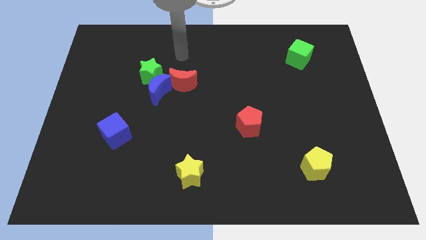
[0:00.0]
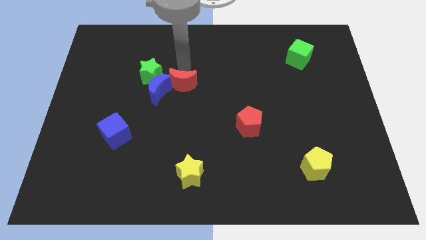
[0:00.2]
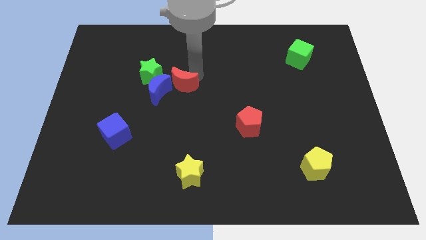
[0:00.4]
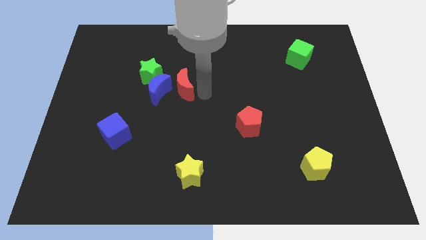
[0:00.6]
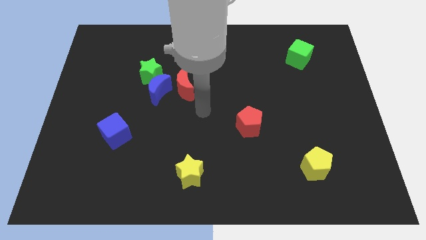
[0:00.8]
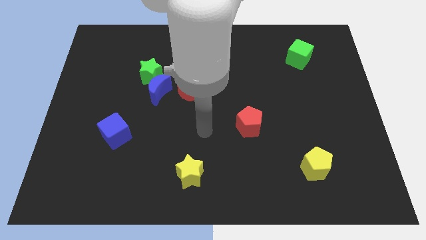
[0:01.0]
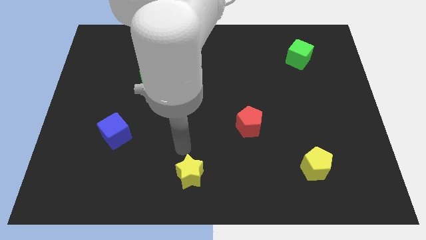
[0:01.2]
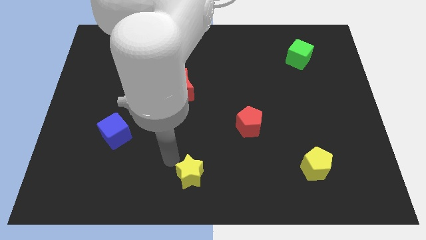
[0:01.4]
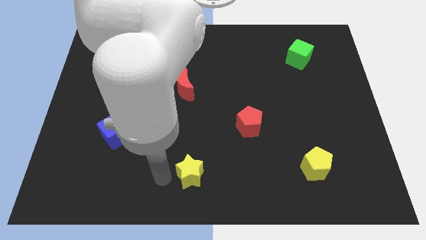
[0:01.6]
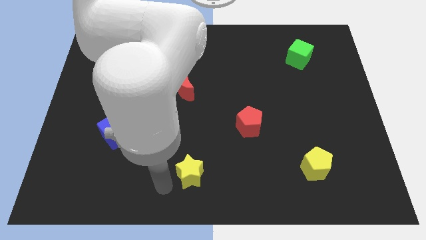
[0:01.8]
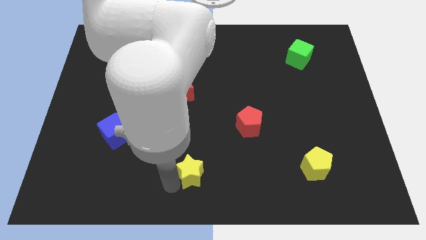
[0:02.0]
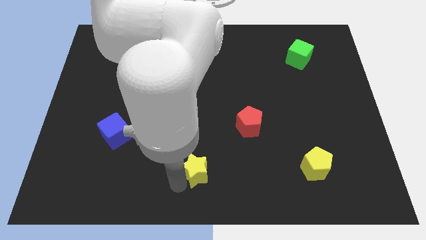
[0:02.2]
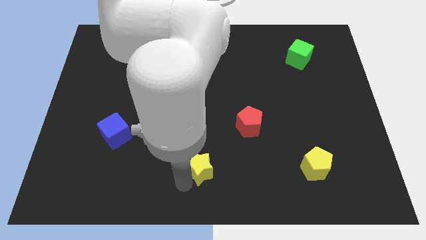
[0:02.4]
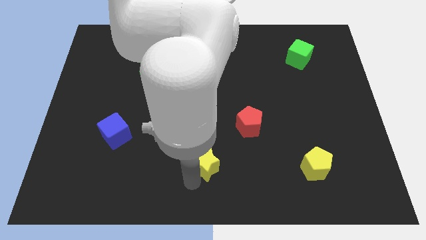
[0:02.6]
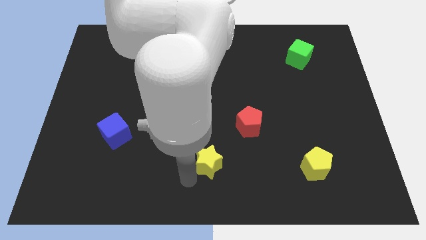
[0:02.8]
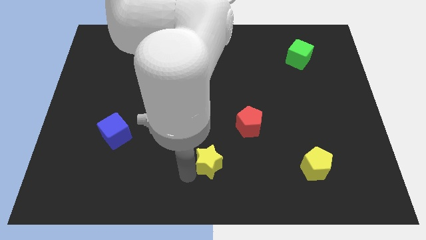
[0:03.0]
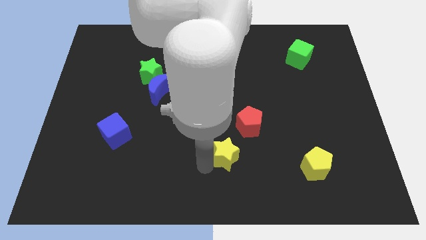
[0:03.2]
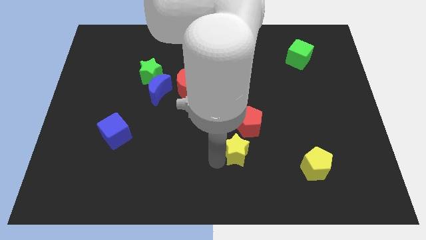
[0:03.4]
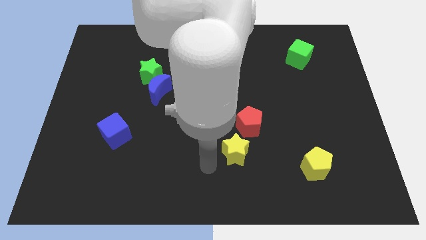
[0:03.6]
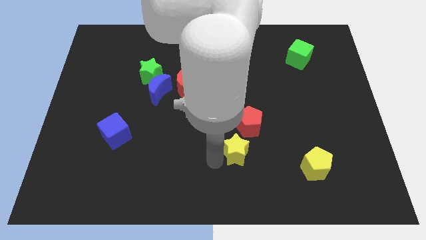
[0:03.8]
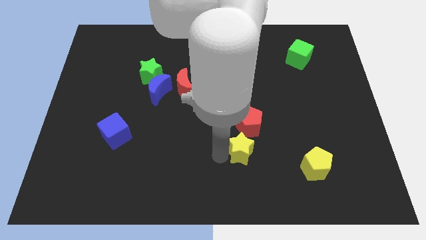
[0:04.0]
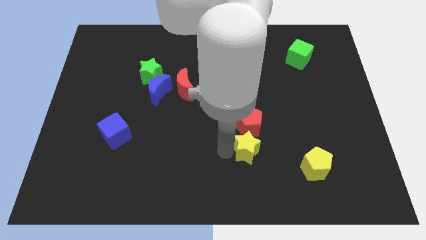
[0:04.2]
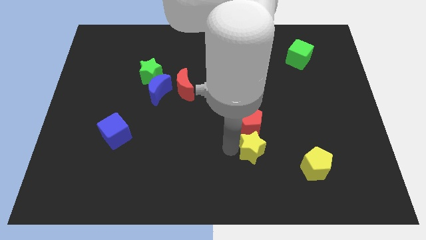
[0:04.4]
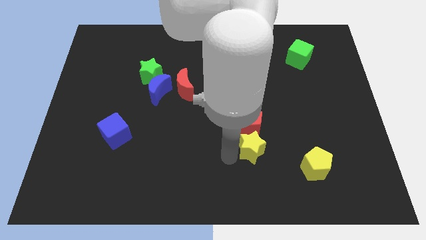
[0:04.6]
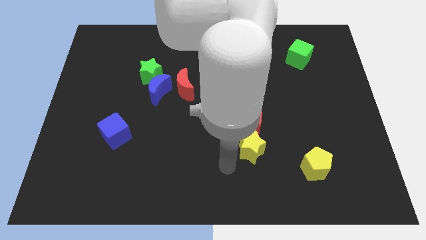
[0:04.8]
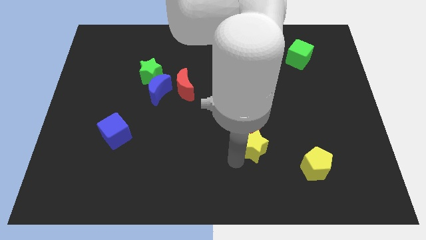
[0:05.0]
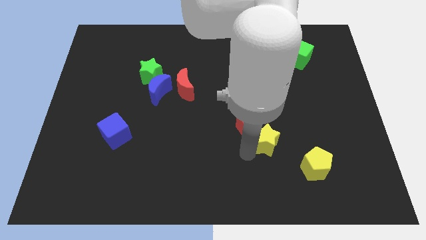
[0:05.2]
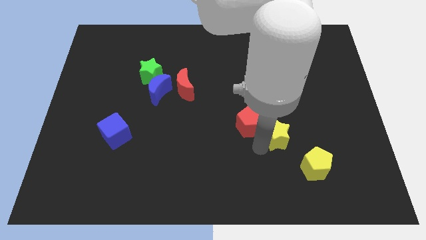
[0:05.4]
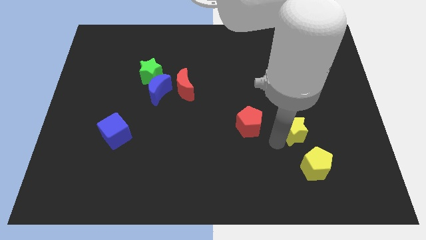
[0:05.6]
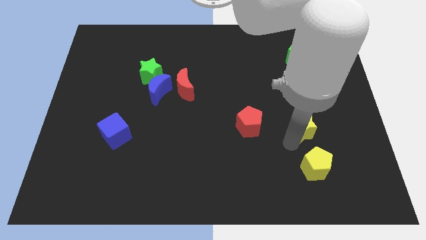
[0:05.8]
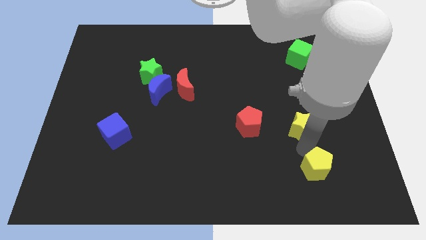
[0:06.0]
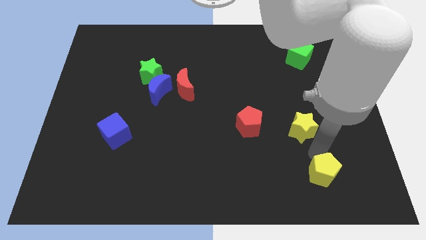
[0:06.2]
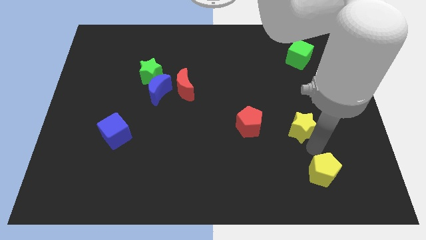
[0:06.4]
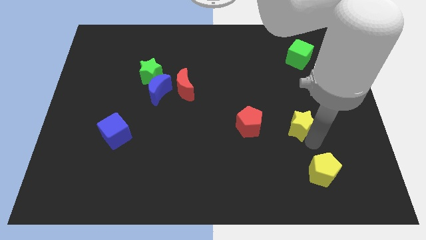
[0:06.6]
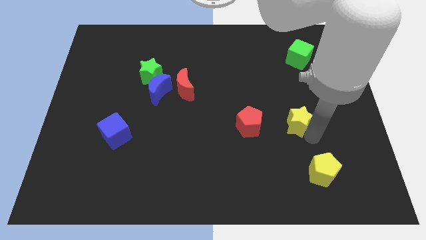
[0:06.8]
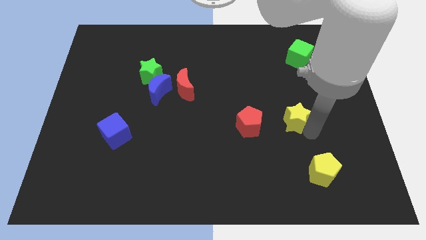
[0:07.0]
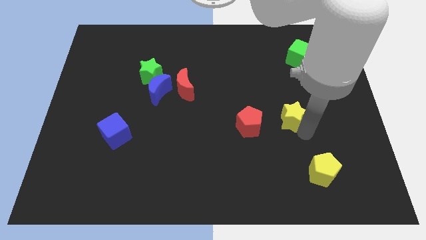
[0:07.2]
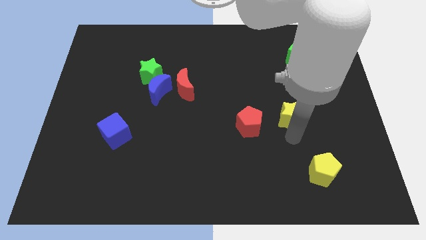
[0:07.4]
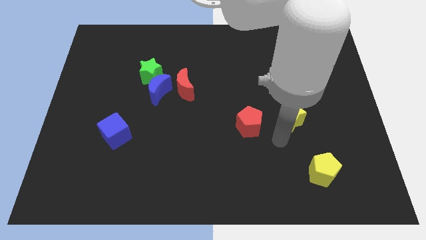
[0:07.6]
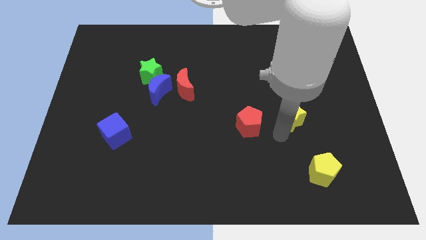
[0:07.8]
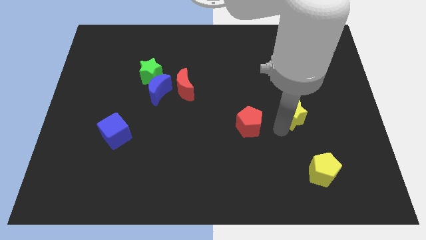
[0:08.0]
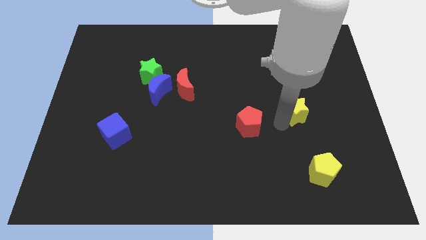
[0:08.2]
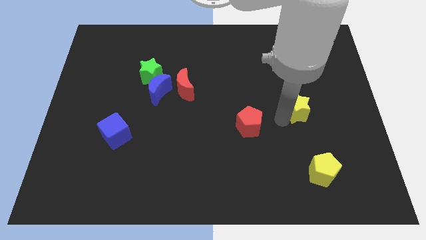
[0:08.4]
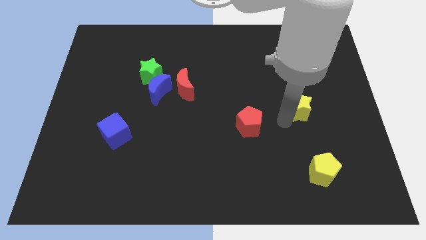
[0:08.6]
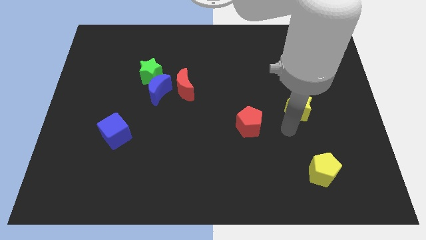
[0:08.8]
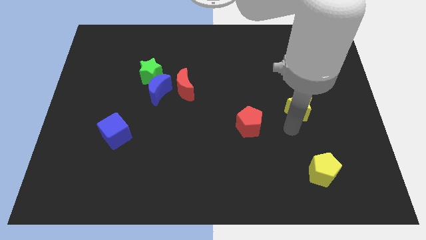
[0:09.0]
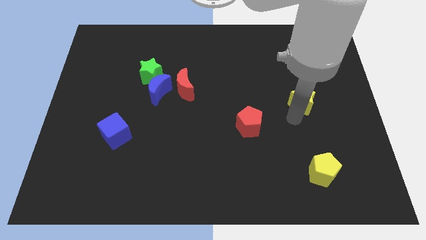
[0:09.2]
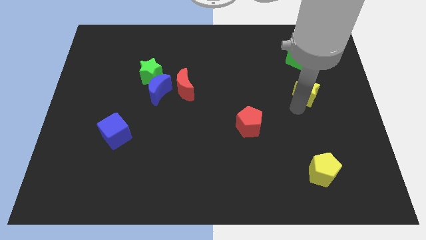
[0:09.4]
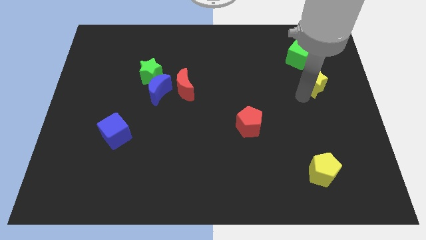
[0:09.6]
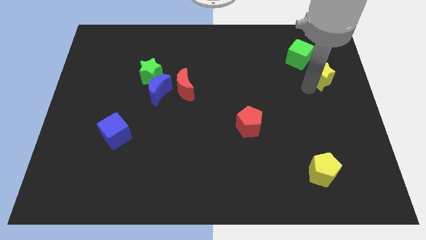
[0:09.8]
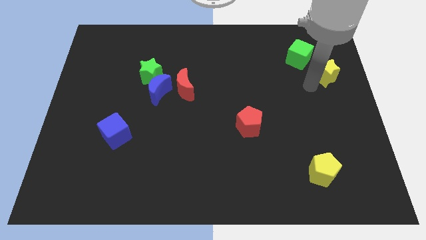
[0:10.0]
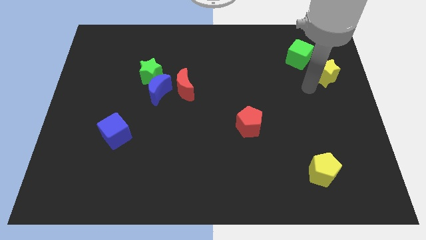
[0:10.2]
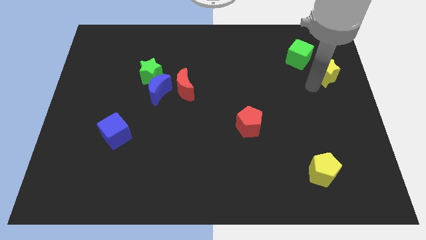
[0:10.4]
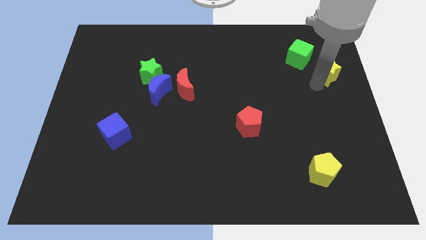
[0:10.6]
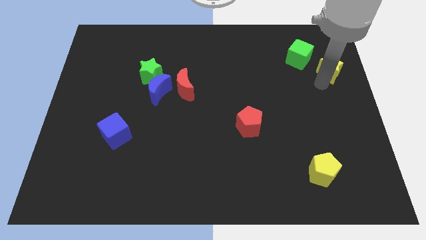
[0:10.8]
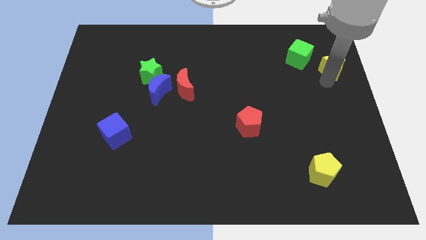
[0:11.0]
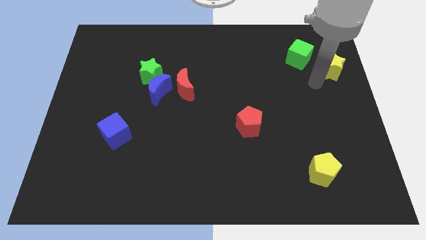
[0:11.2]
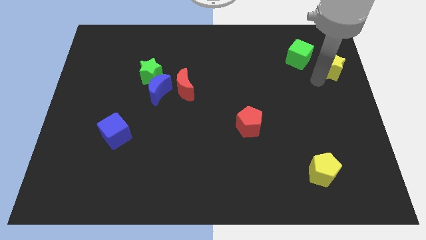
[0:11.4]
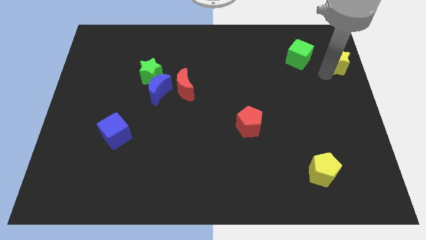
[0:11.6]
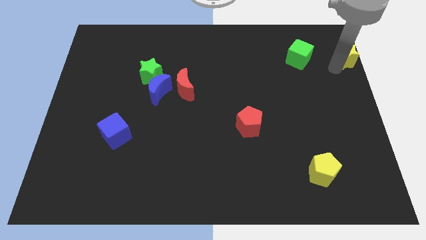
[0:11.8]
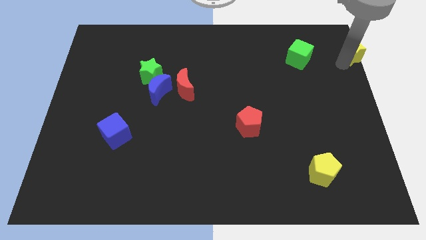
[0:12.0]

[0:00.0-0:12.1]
move the yellow star to the upper right corner

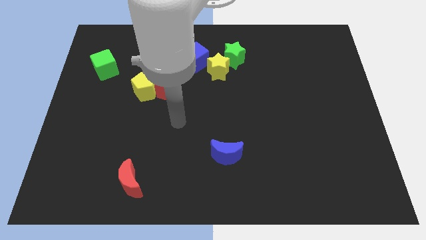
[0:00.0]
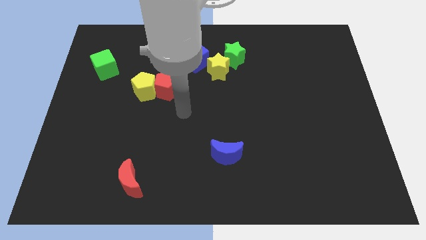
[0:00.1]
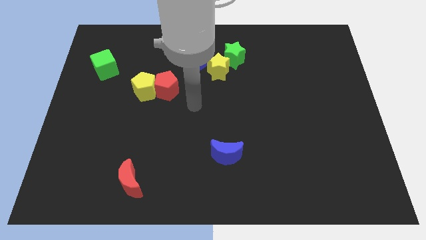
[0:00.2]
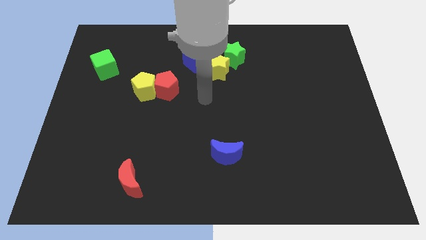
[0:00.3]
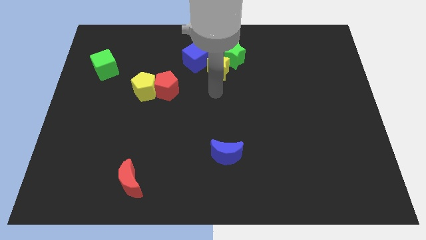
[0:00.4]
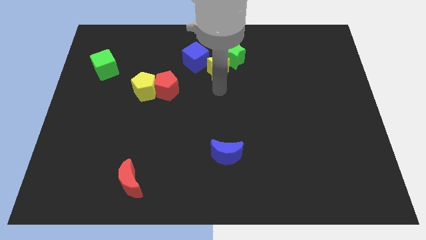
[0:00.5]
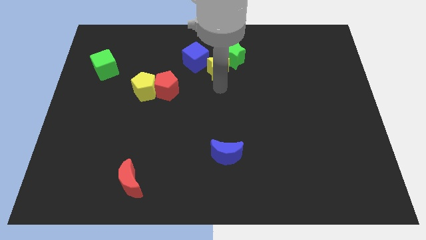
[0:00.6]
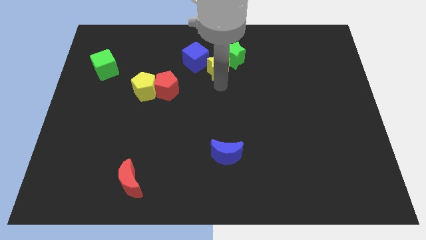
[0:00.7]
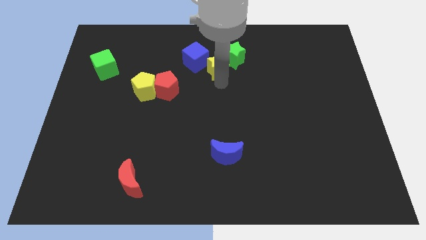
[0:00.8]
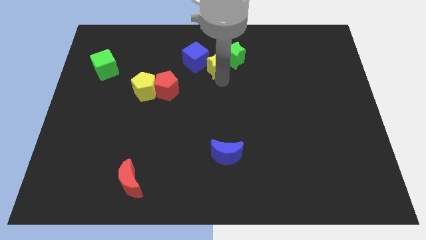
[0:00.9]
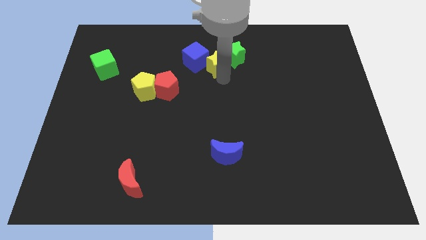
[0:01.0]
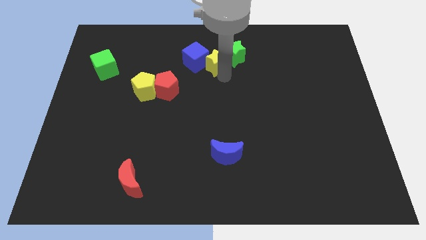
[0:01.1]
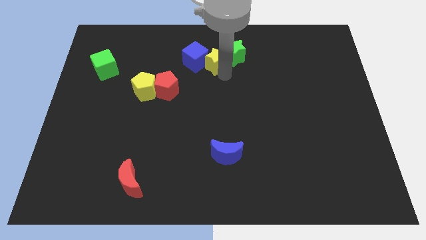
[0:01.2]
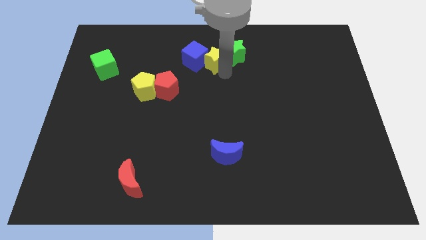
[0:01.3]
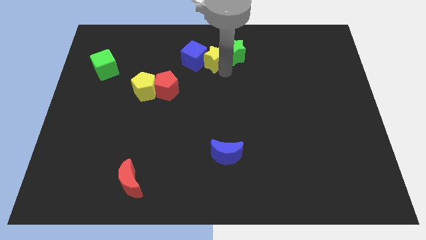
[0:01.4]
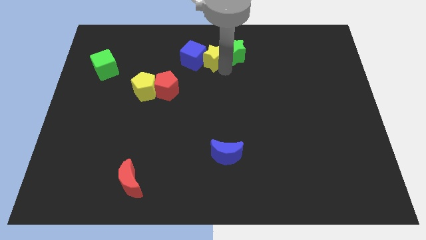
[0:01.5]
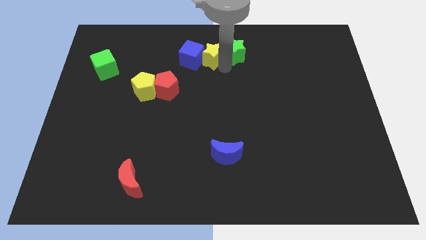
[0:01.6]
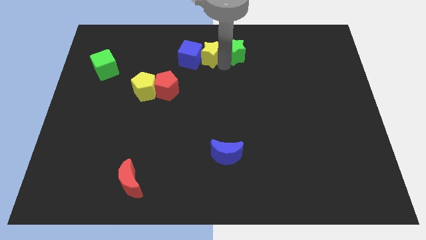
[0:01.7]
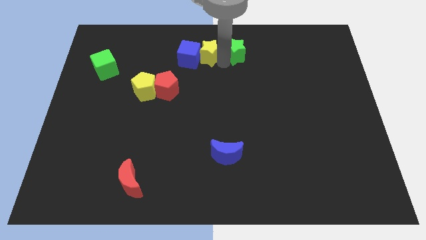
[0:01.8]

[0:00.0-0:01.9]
move the yellow star to the towards your base
